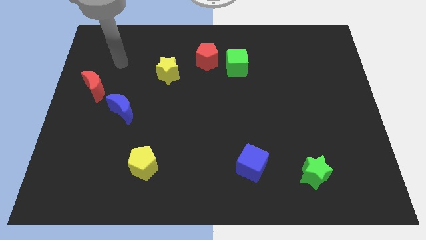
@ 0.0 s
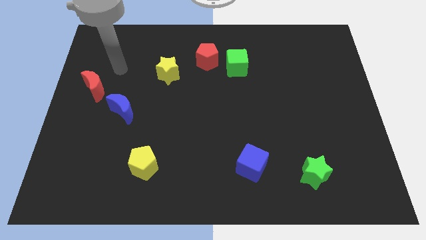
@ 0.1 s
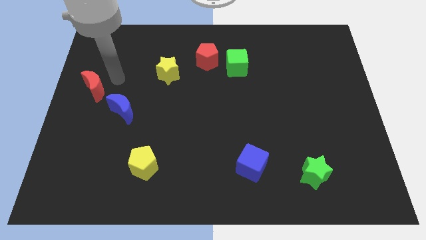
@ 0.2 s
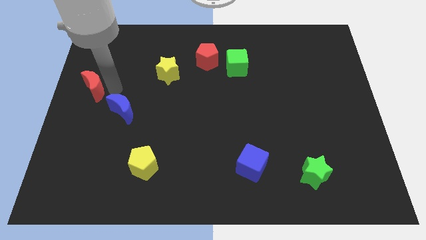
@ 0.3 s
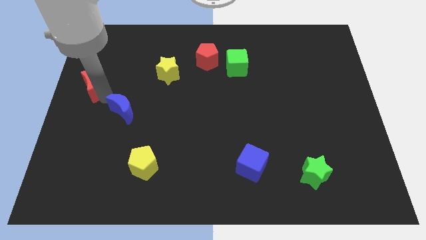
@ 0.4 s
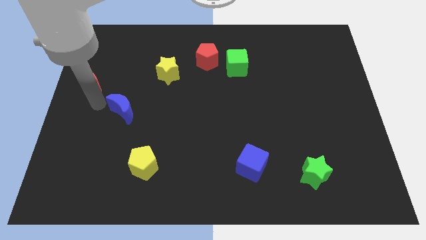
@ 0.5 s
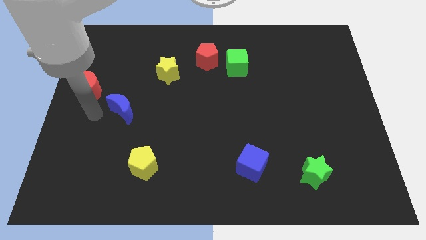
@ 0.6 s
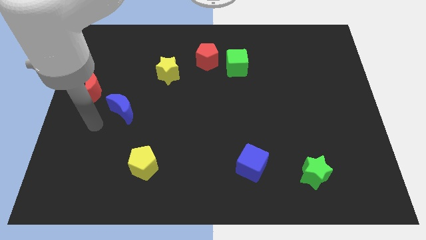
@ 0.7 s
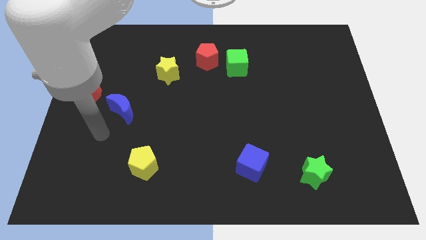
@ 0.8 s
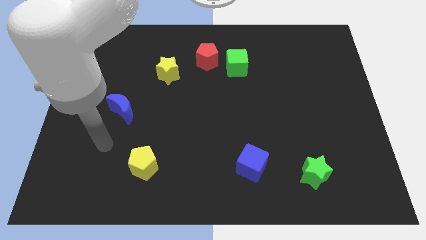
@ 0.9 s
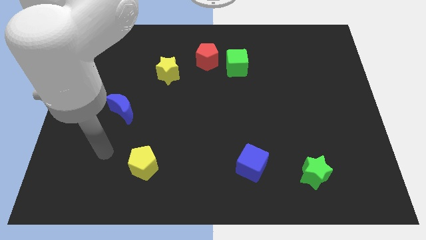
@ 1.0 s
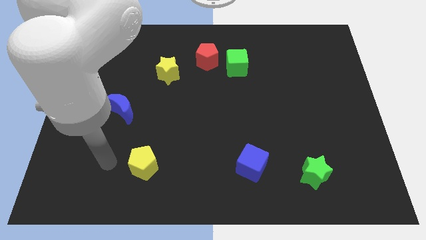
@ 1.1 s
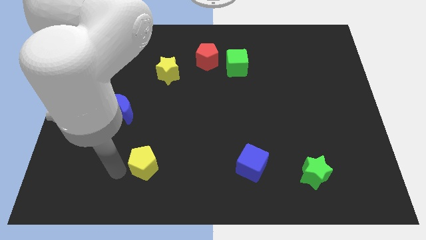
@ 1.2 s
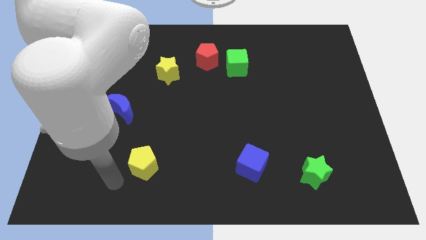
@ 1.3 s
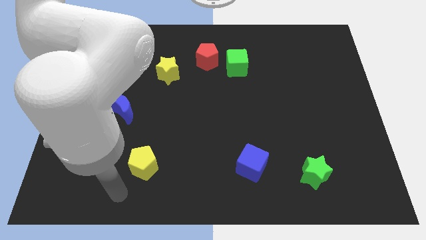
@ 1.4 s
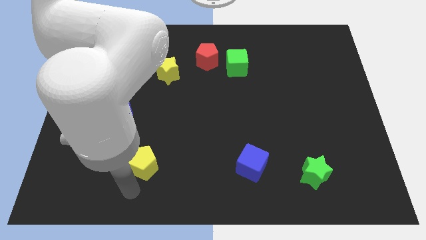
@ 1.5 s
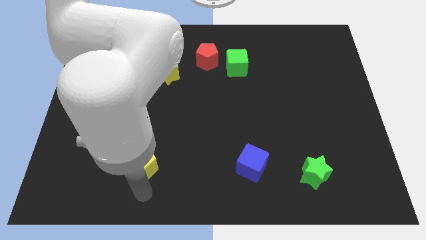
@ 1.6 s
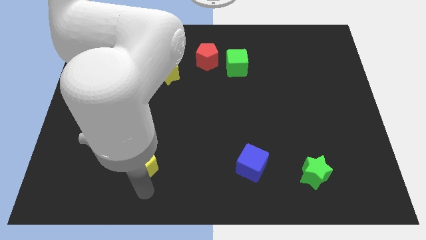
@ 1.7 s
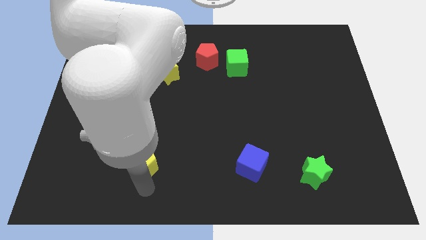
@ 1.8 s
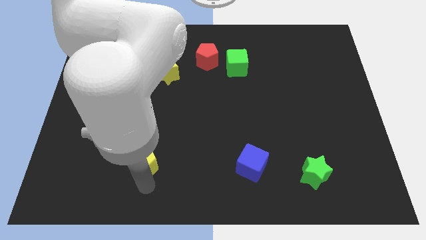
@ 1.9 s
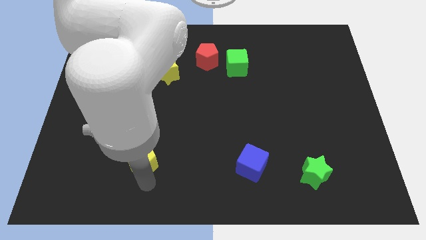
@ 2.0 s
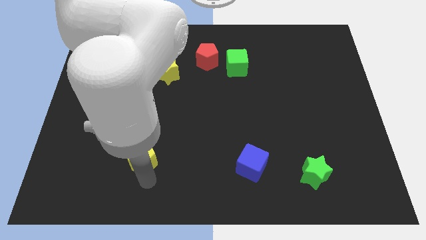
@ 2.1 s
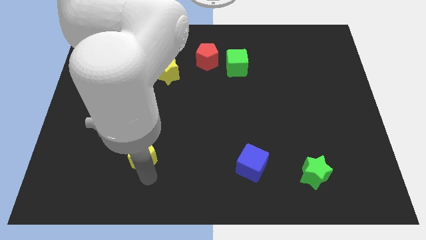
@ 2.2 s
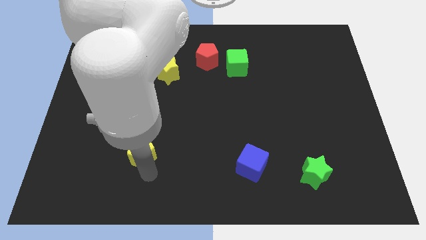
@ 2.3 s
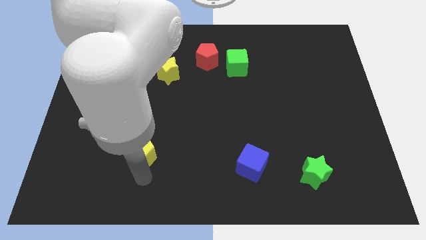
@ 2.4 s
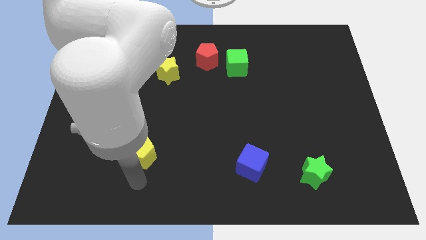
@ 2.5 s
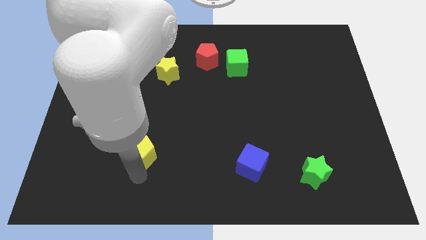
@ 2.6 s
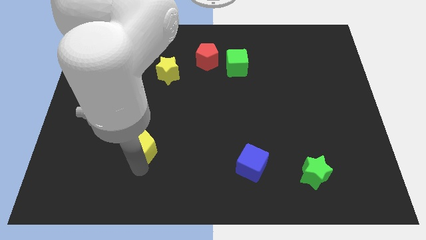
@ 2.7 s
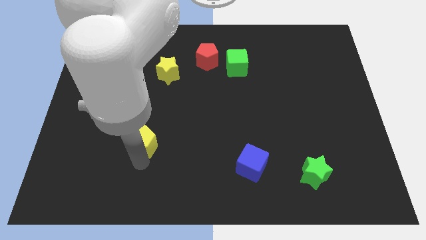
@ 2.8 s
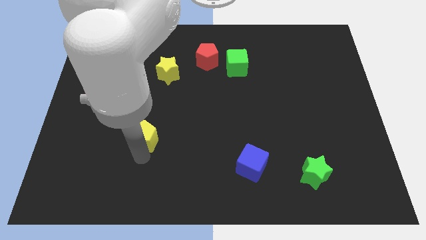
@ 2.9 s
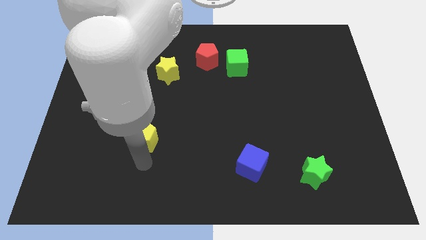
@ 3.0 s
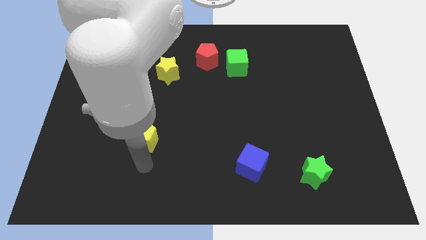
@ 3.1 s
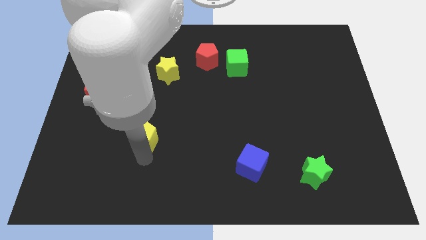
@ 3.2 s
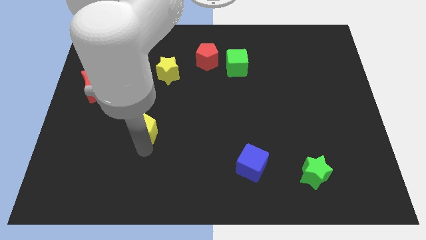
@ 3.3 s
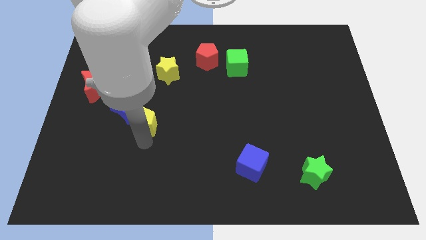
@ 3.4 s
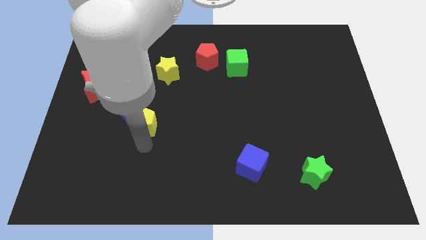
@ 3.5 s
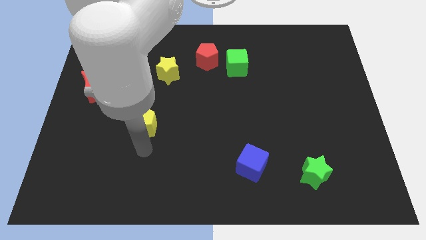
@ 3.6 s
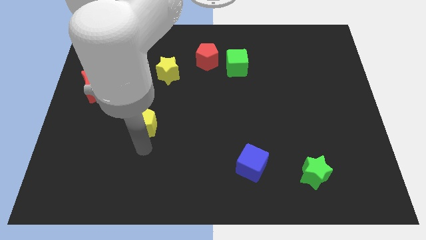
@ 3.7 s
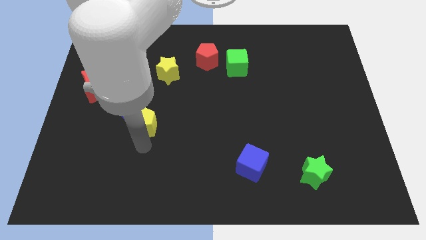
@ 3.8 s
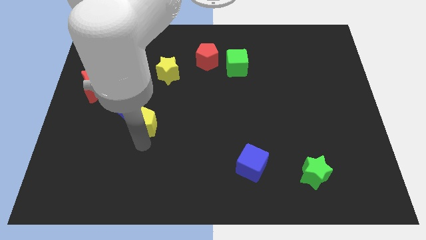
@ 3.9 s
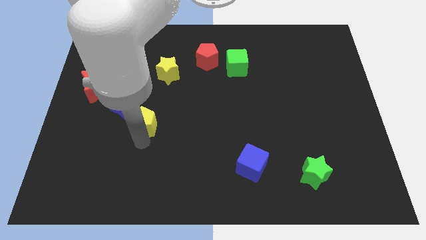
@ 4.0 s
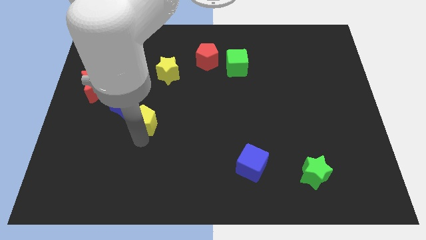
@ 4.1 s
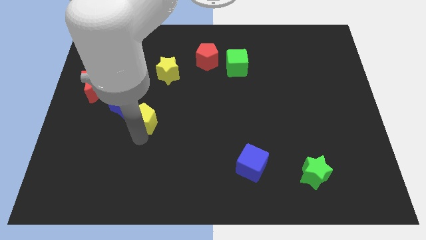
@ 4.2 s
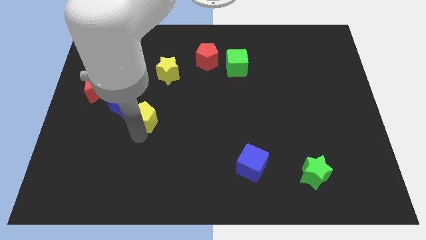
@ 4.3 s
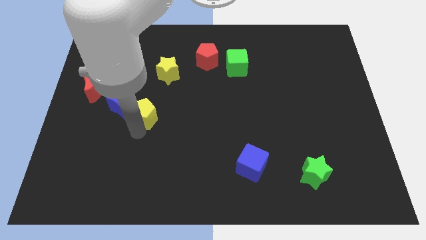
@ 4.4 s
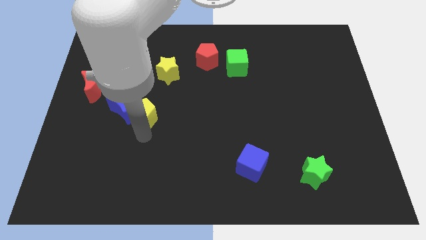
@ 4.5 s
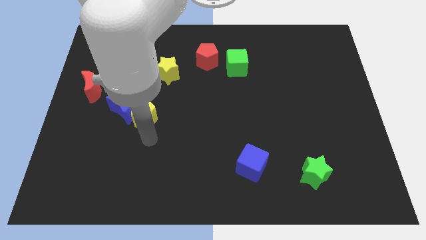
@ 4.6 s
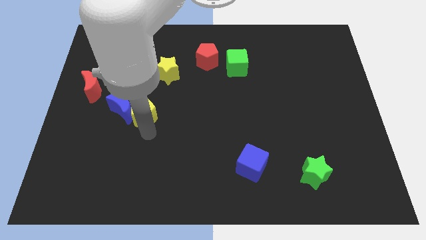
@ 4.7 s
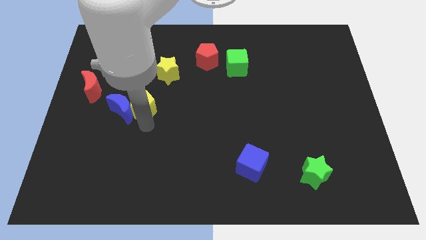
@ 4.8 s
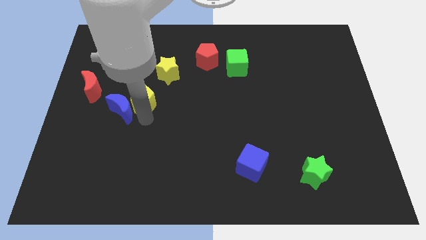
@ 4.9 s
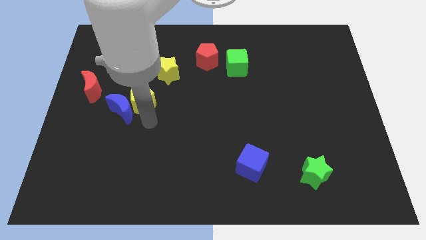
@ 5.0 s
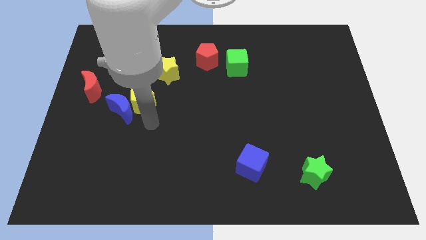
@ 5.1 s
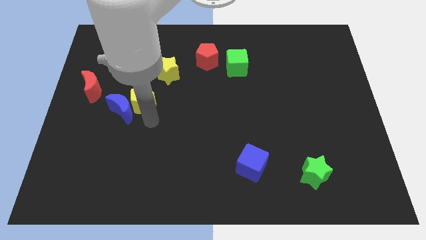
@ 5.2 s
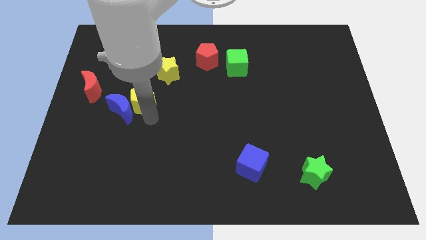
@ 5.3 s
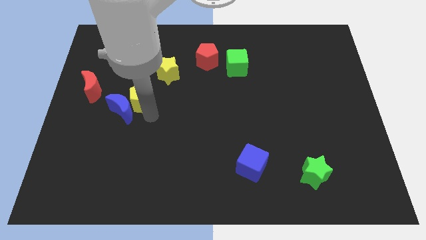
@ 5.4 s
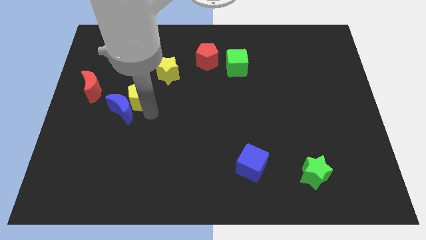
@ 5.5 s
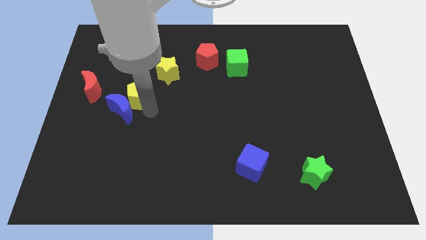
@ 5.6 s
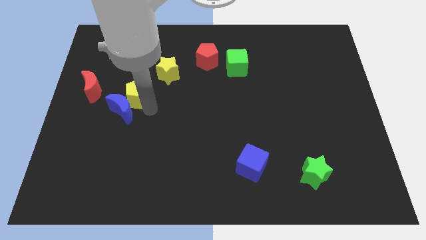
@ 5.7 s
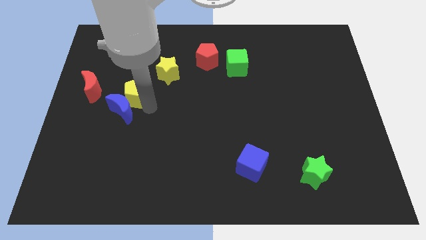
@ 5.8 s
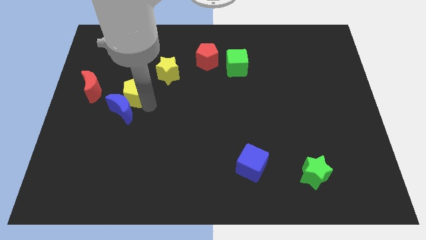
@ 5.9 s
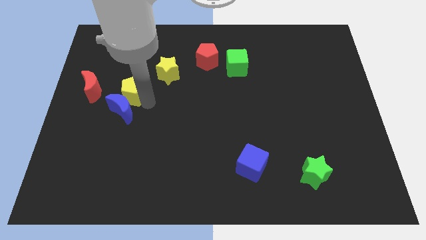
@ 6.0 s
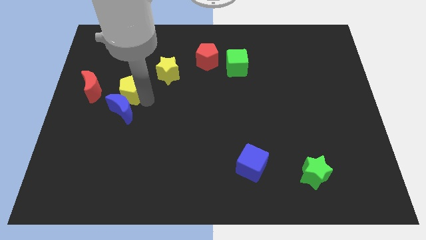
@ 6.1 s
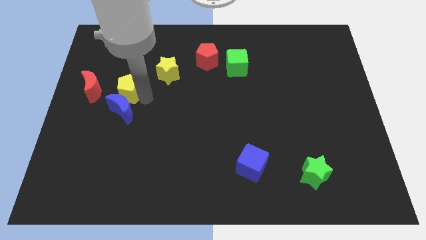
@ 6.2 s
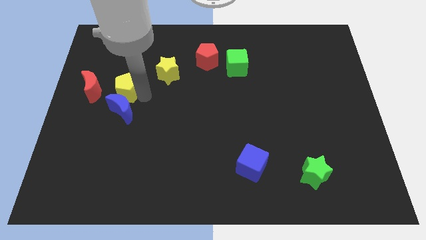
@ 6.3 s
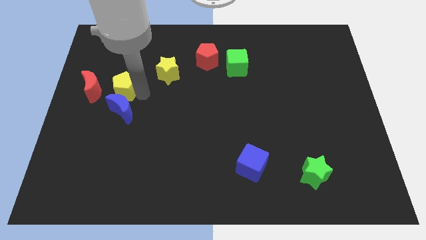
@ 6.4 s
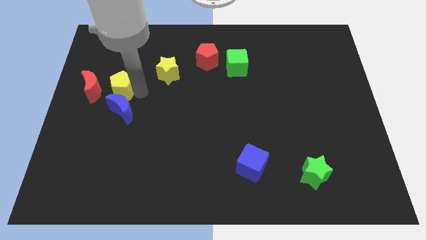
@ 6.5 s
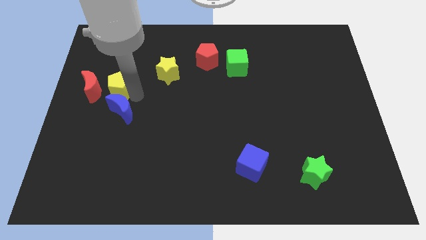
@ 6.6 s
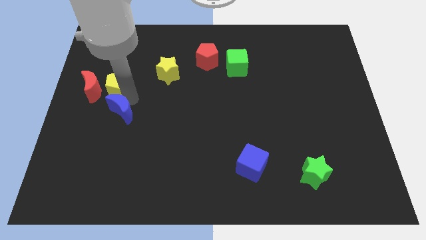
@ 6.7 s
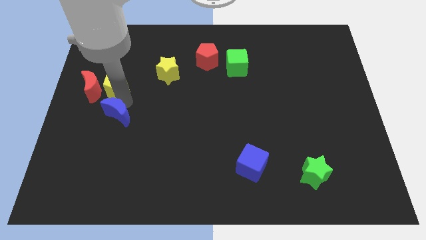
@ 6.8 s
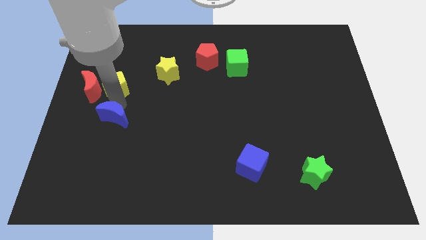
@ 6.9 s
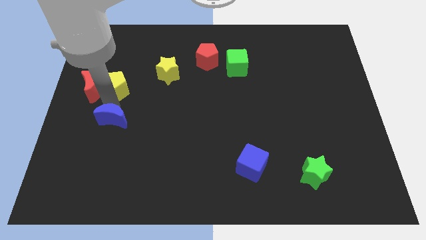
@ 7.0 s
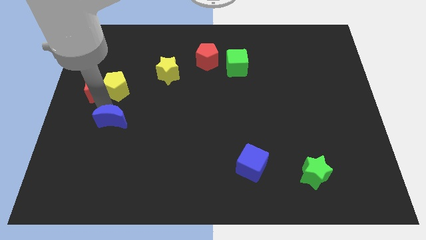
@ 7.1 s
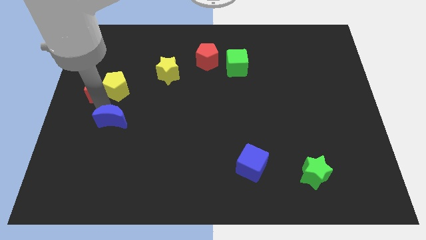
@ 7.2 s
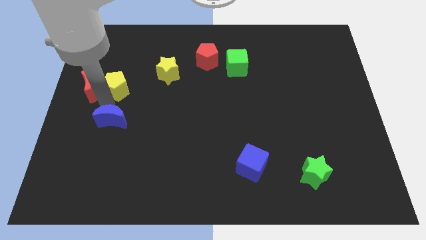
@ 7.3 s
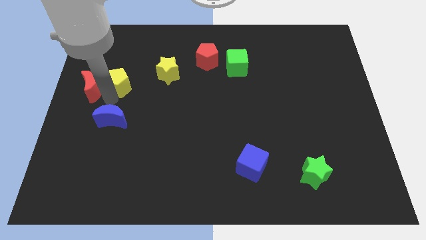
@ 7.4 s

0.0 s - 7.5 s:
push the yellow pentagon left of the yellow star
